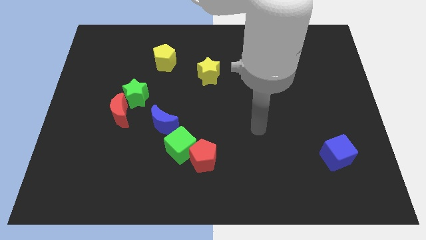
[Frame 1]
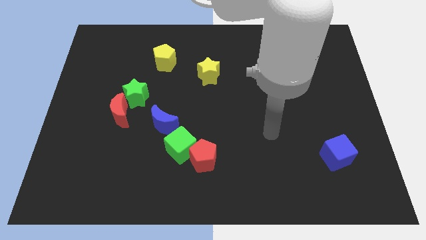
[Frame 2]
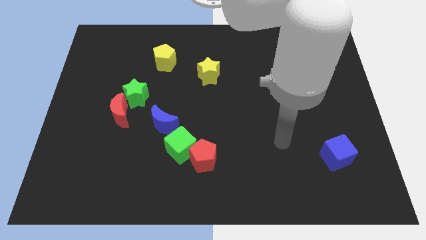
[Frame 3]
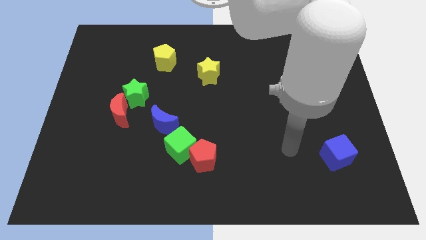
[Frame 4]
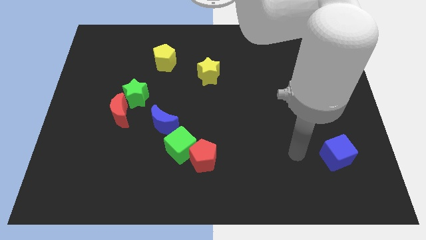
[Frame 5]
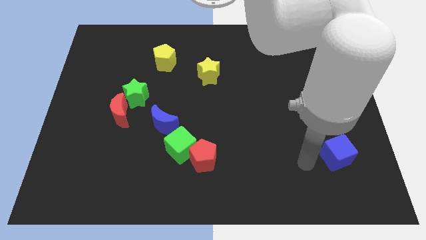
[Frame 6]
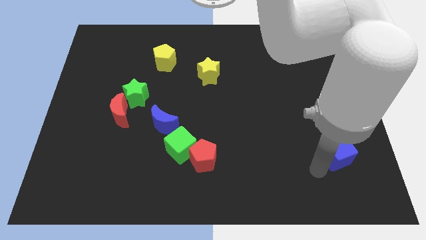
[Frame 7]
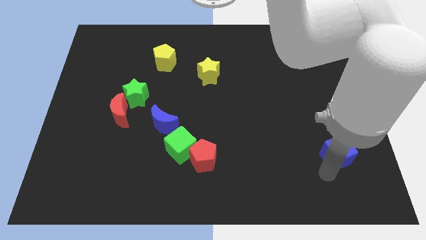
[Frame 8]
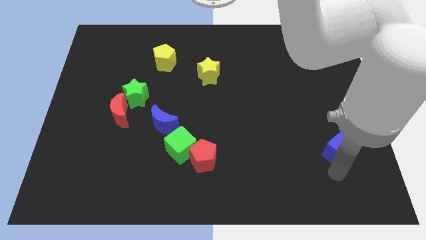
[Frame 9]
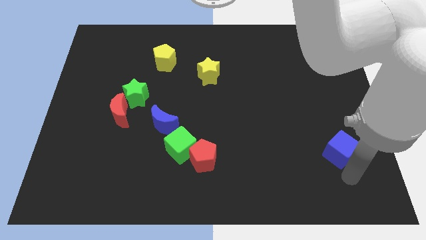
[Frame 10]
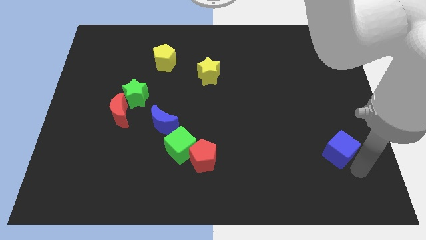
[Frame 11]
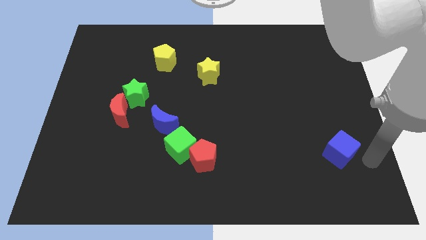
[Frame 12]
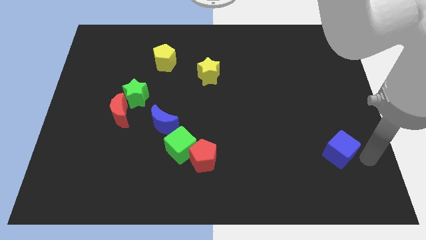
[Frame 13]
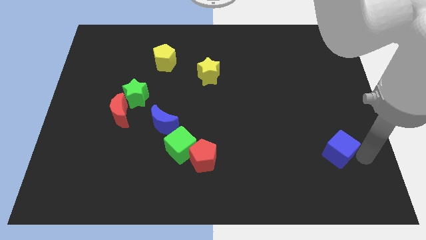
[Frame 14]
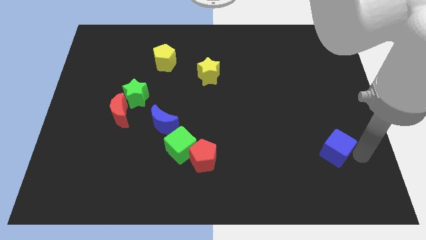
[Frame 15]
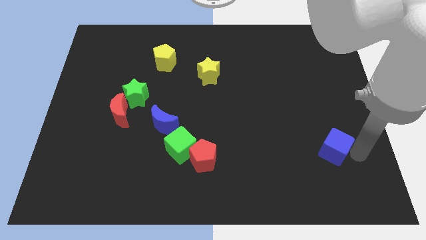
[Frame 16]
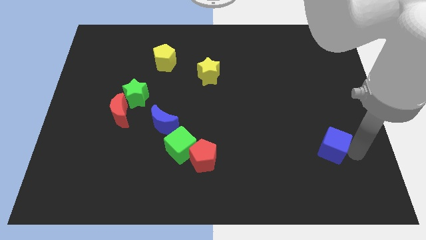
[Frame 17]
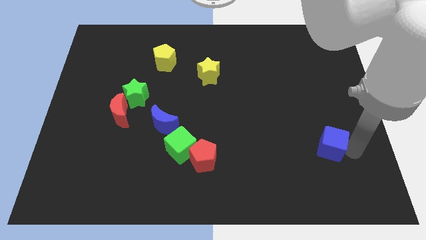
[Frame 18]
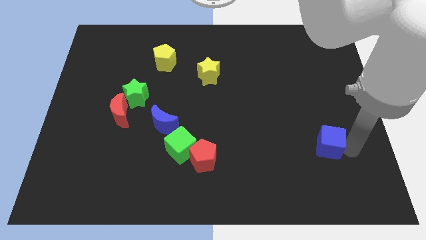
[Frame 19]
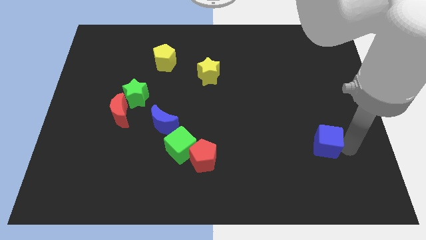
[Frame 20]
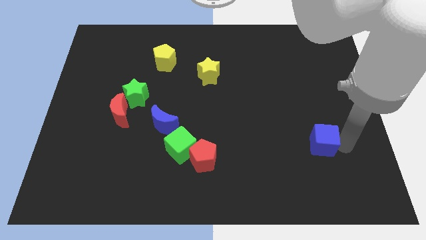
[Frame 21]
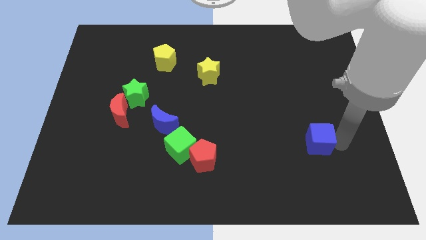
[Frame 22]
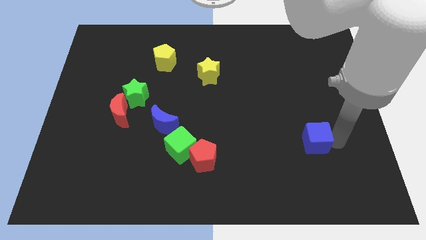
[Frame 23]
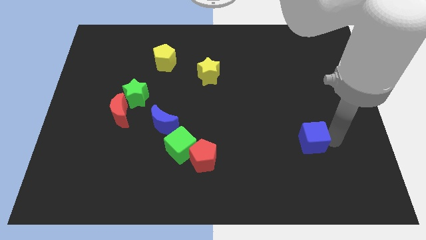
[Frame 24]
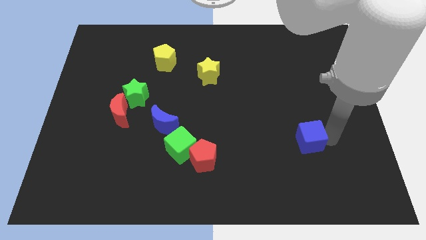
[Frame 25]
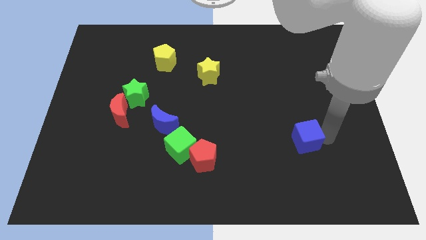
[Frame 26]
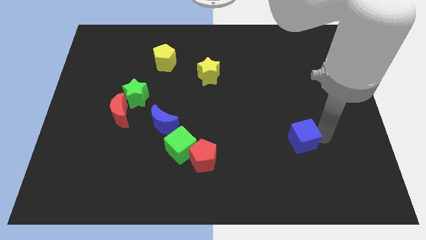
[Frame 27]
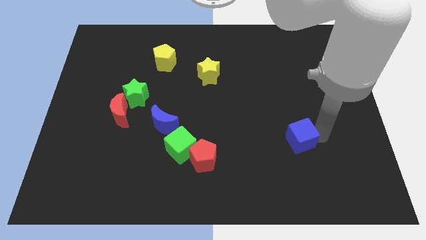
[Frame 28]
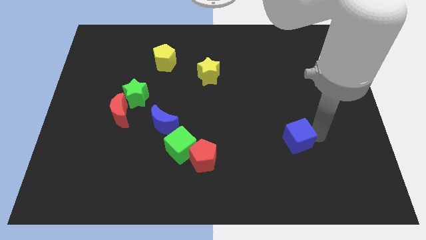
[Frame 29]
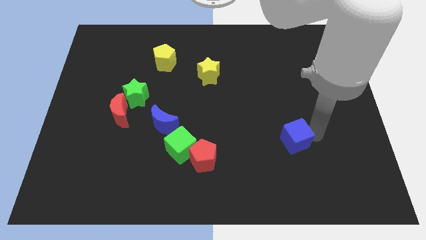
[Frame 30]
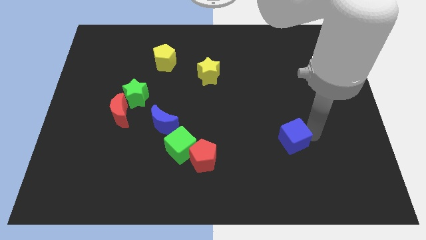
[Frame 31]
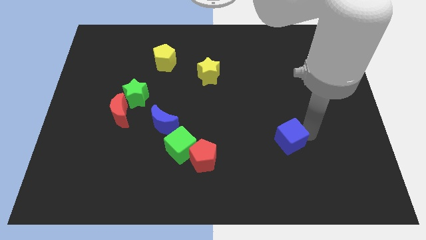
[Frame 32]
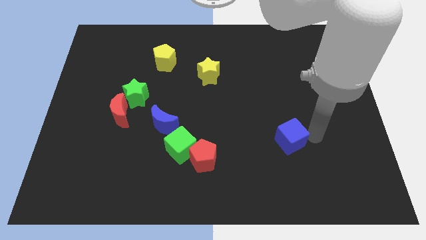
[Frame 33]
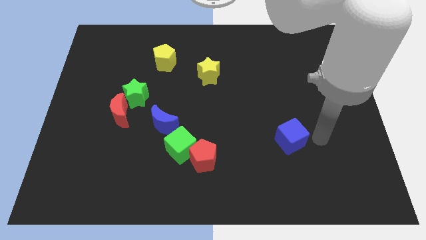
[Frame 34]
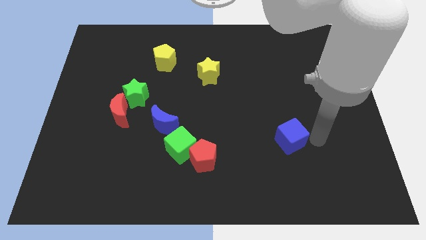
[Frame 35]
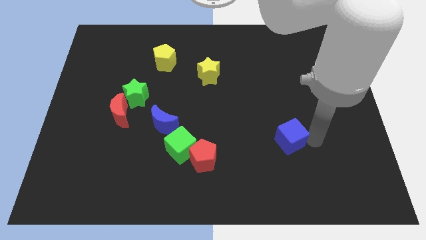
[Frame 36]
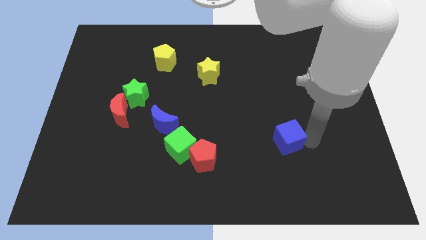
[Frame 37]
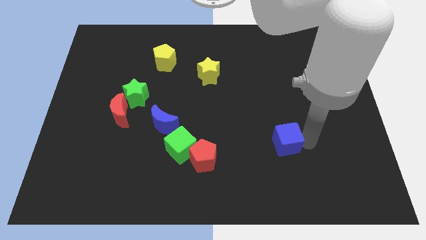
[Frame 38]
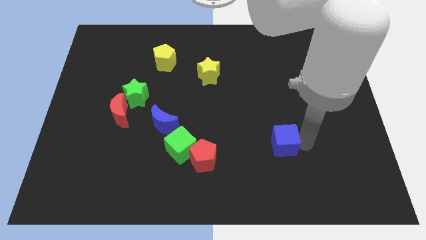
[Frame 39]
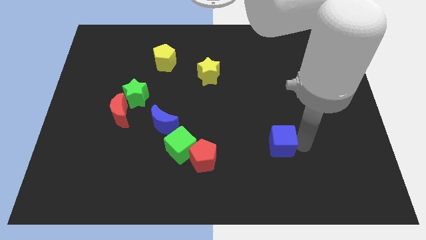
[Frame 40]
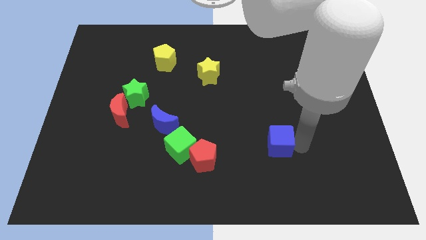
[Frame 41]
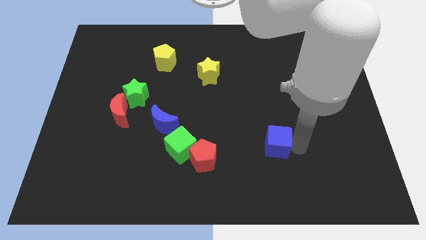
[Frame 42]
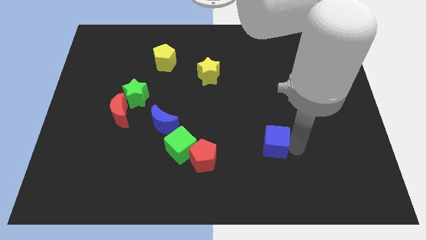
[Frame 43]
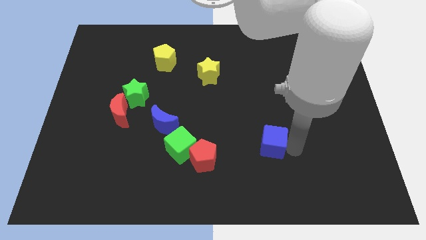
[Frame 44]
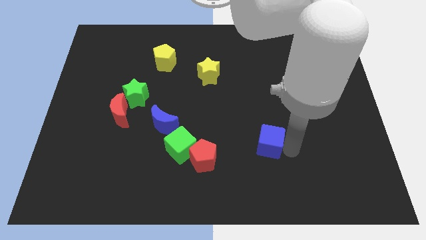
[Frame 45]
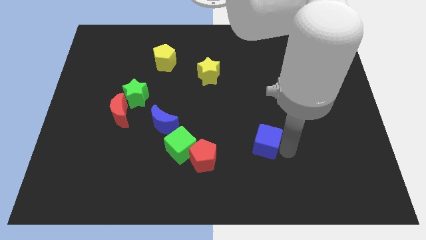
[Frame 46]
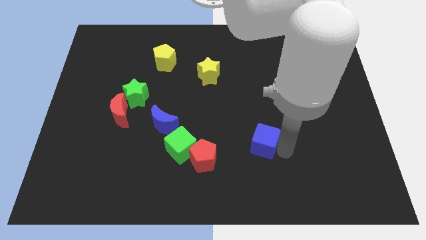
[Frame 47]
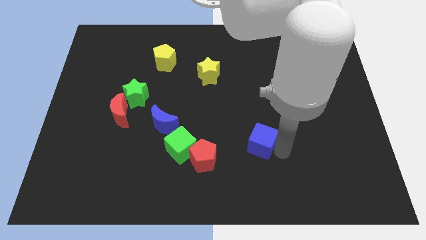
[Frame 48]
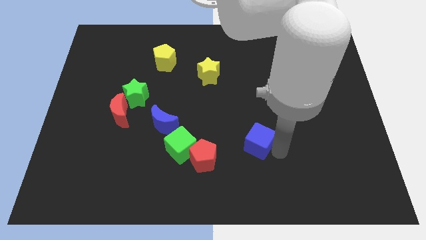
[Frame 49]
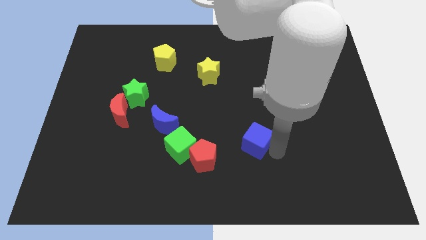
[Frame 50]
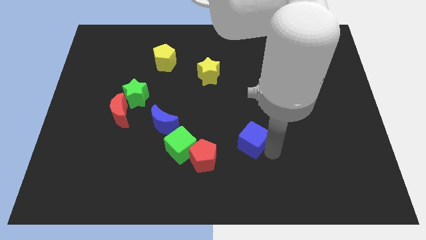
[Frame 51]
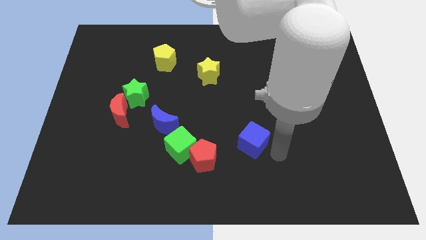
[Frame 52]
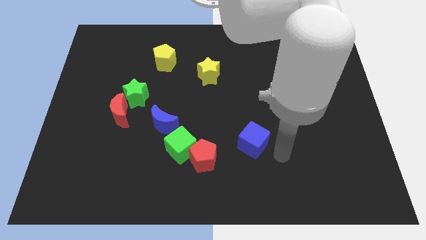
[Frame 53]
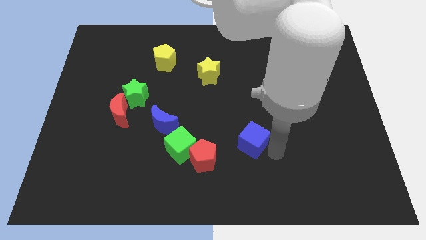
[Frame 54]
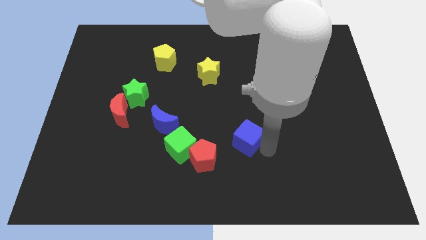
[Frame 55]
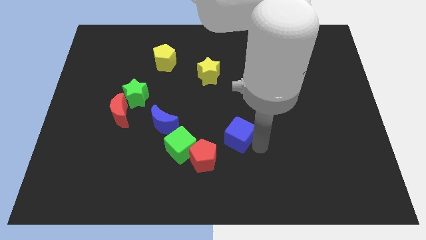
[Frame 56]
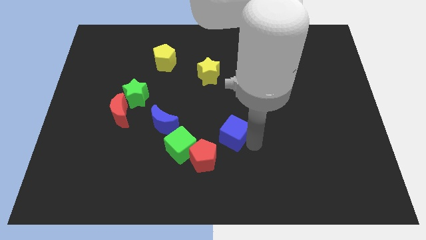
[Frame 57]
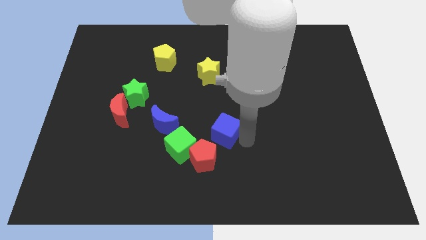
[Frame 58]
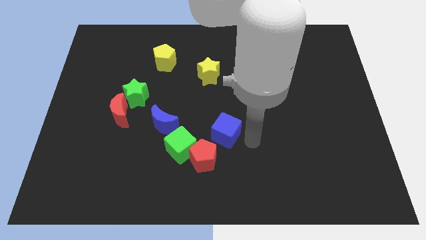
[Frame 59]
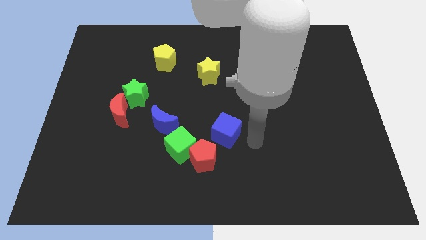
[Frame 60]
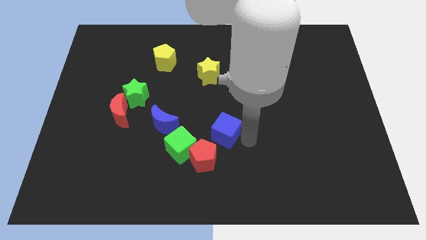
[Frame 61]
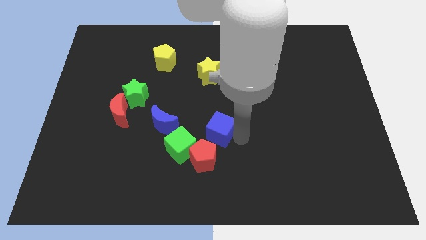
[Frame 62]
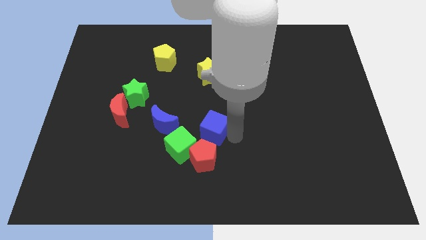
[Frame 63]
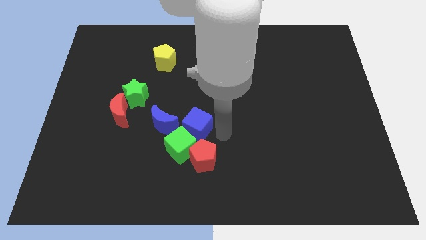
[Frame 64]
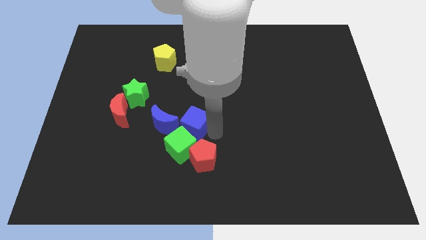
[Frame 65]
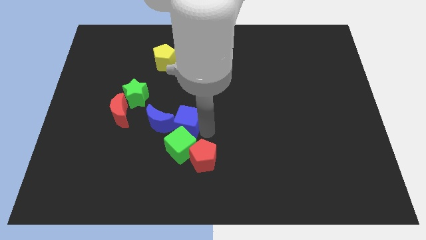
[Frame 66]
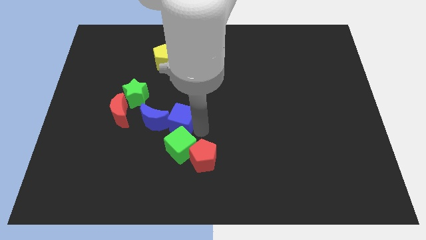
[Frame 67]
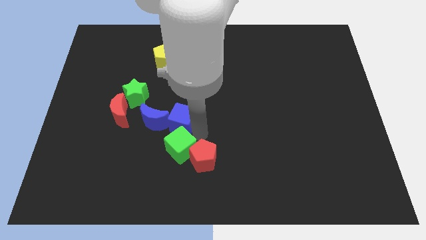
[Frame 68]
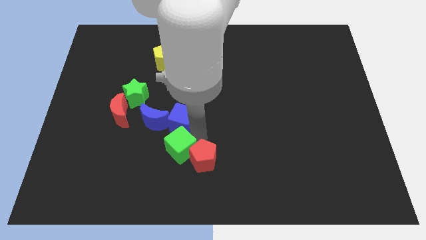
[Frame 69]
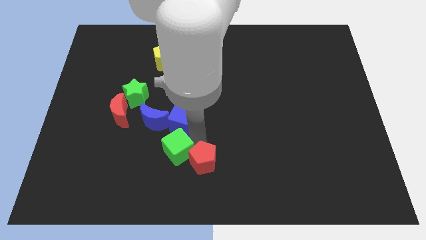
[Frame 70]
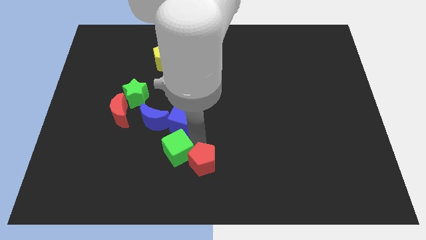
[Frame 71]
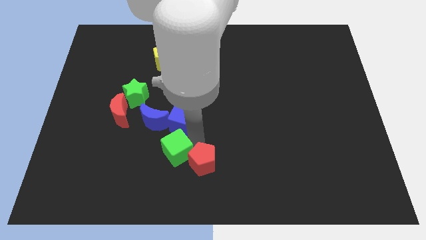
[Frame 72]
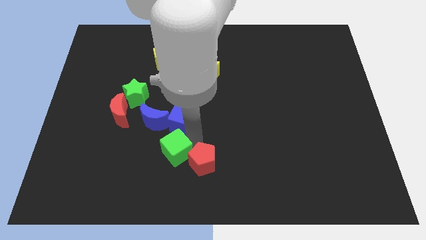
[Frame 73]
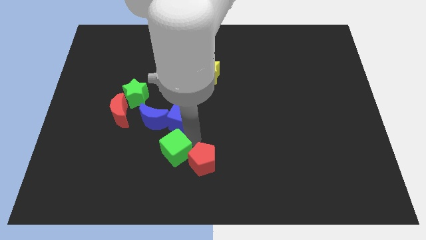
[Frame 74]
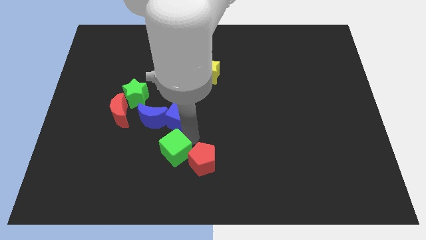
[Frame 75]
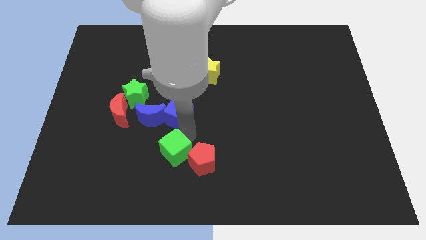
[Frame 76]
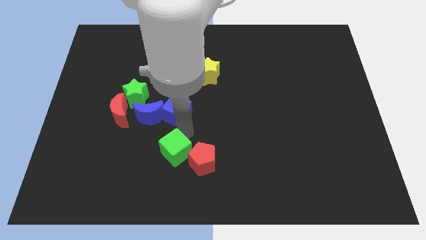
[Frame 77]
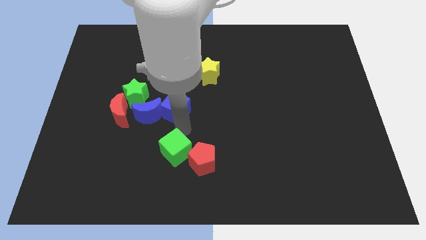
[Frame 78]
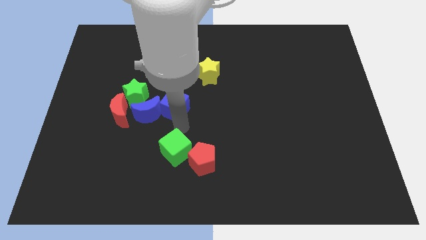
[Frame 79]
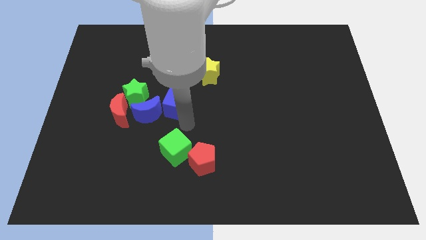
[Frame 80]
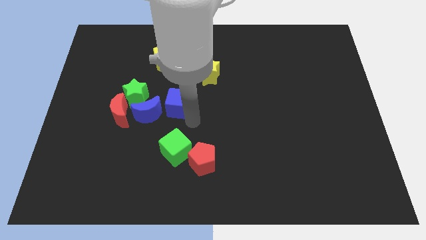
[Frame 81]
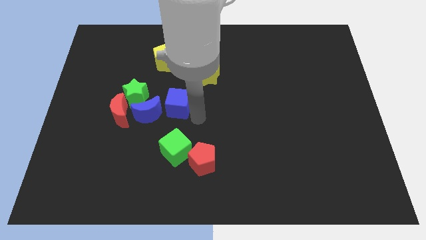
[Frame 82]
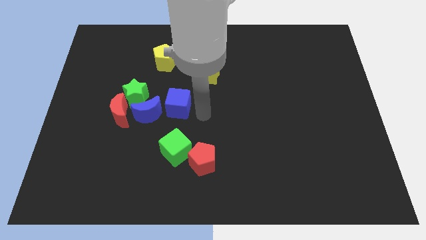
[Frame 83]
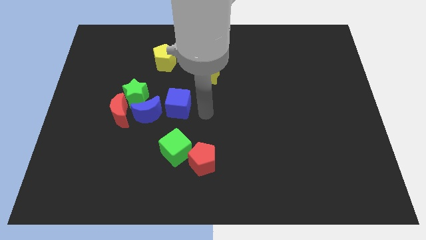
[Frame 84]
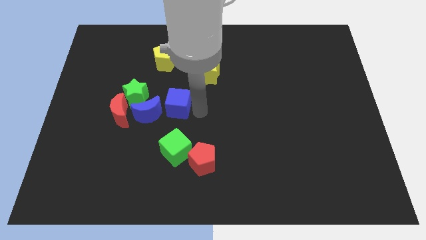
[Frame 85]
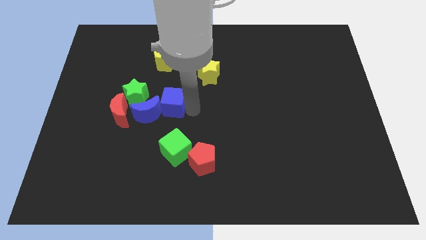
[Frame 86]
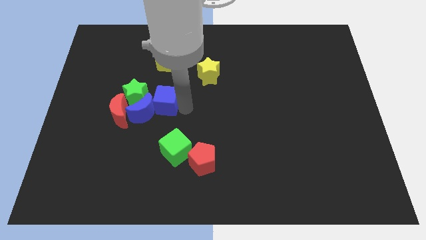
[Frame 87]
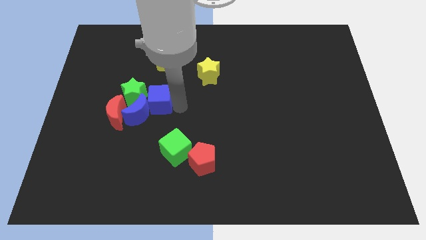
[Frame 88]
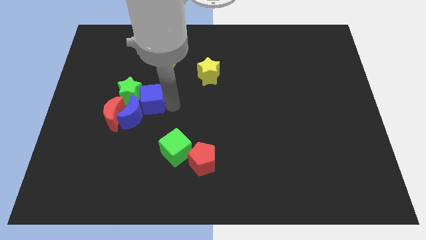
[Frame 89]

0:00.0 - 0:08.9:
put the blue cube close to the green star
